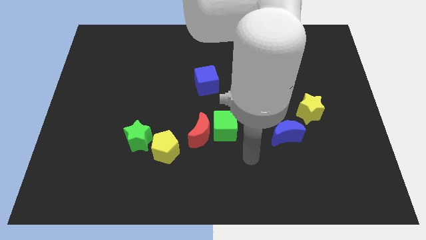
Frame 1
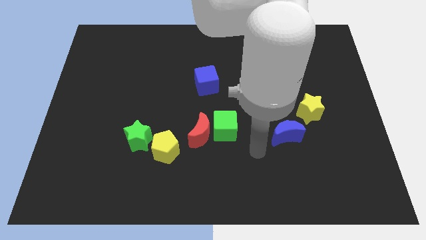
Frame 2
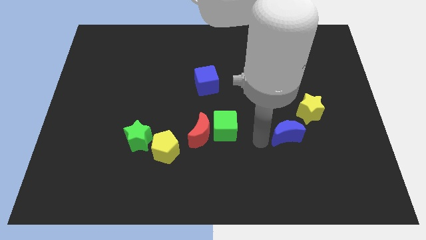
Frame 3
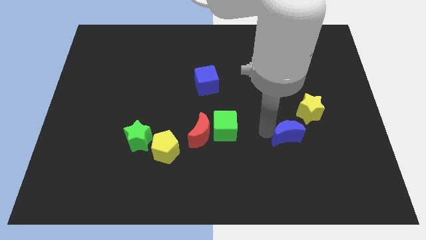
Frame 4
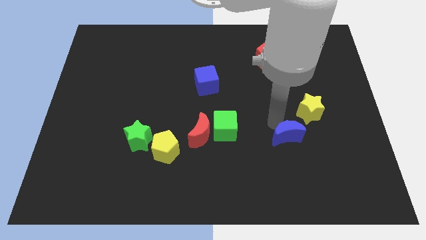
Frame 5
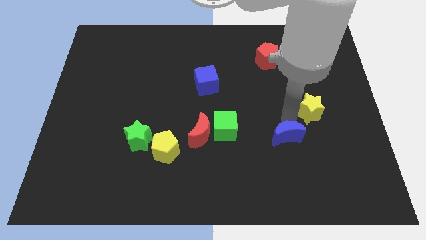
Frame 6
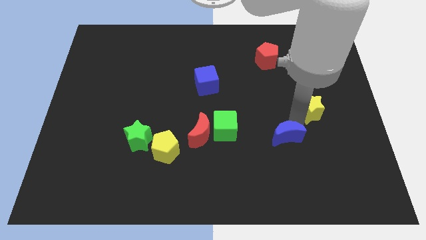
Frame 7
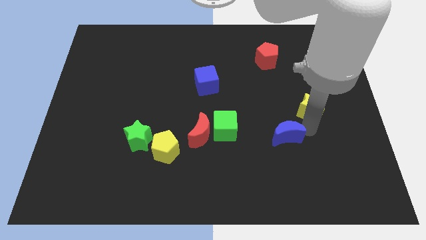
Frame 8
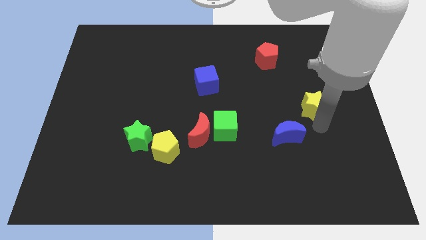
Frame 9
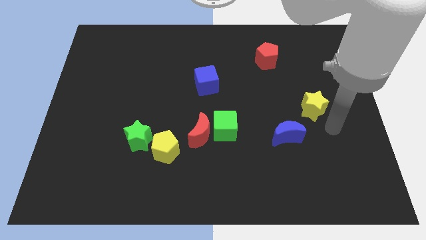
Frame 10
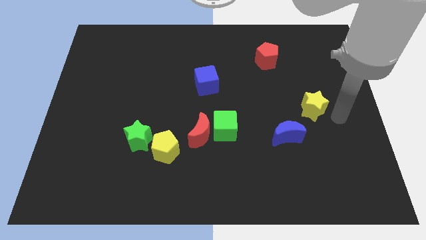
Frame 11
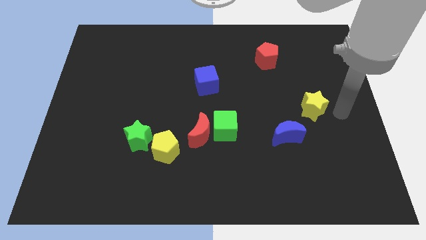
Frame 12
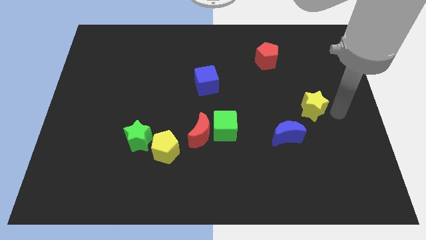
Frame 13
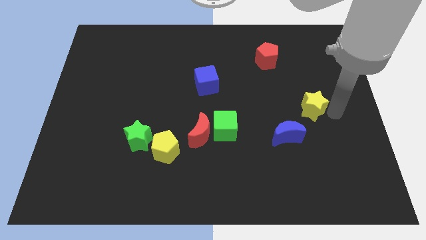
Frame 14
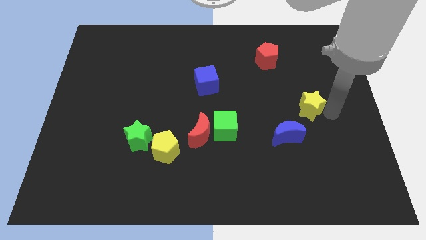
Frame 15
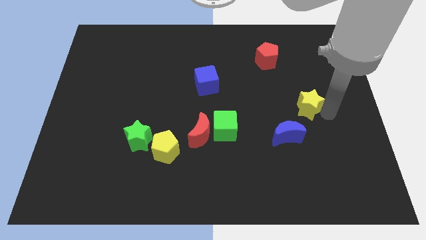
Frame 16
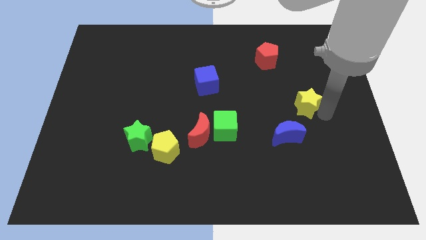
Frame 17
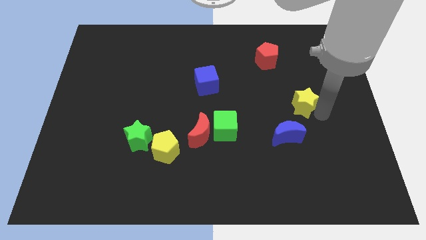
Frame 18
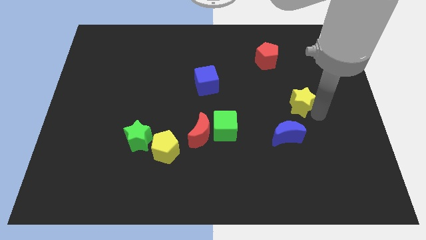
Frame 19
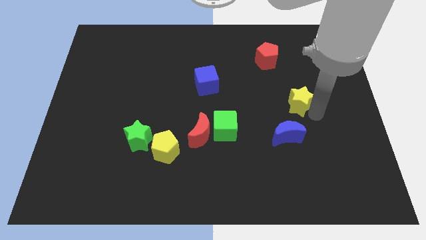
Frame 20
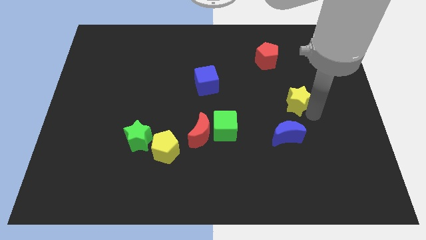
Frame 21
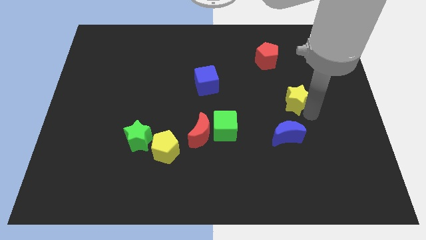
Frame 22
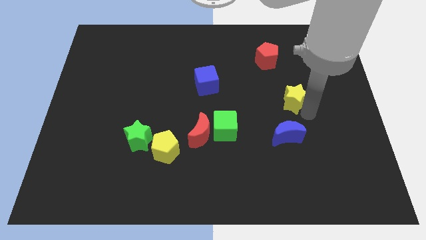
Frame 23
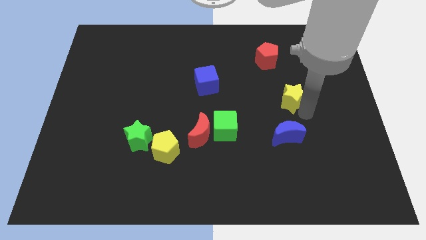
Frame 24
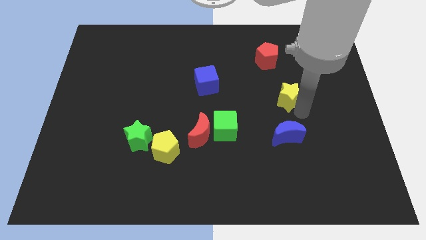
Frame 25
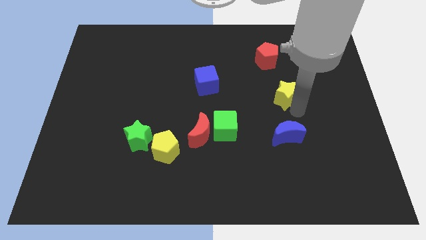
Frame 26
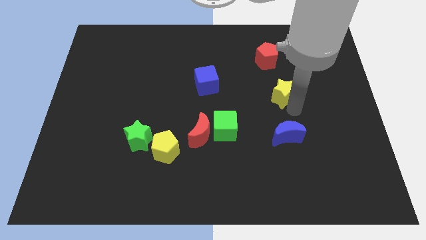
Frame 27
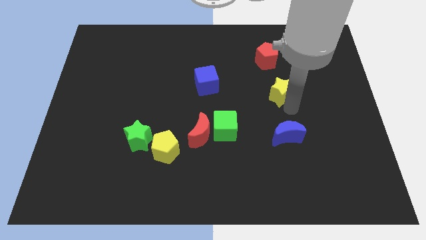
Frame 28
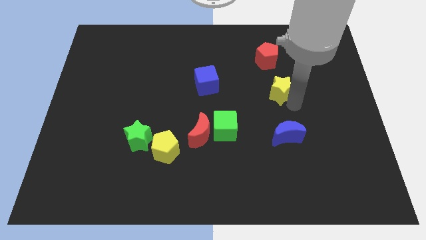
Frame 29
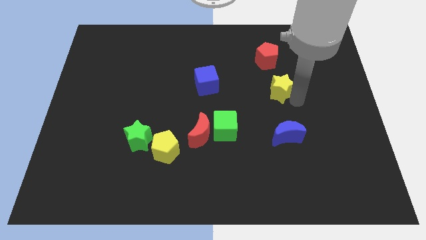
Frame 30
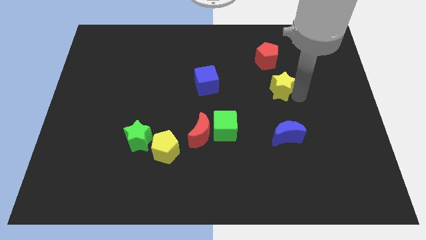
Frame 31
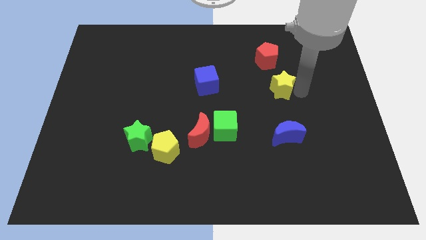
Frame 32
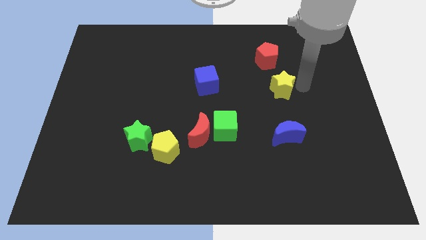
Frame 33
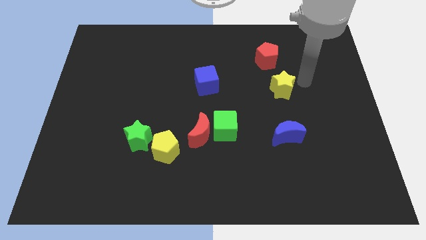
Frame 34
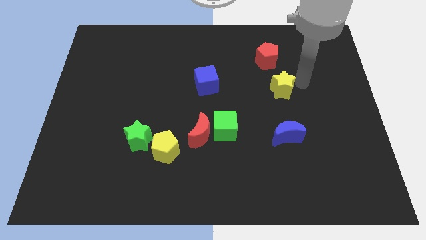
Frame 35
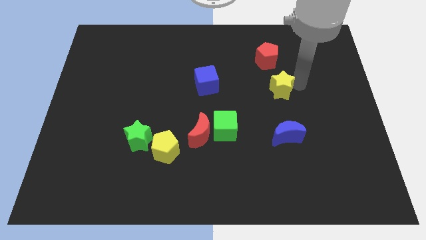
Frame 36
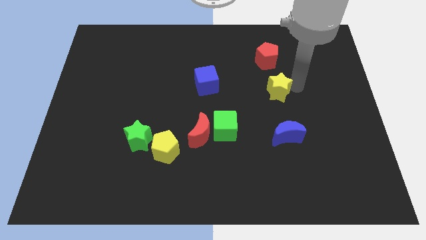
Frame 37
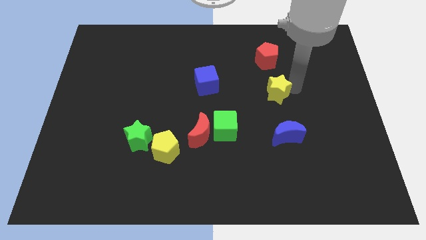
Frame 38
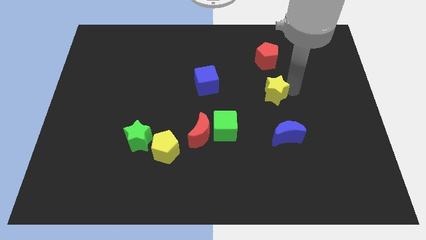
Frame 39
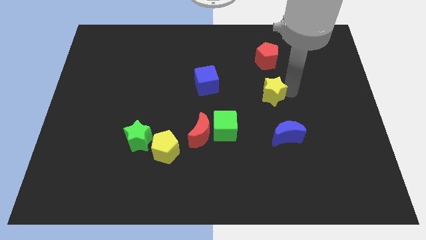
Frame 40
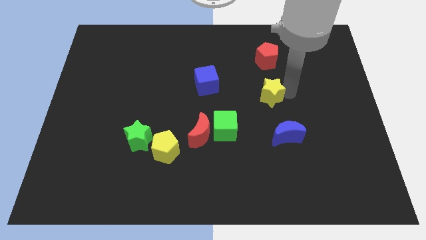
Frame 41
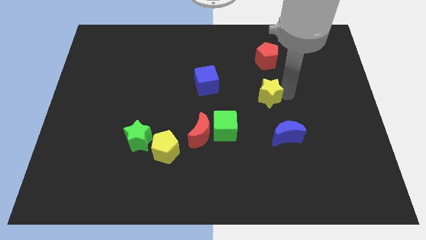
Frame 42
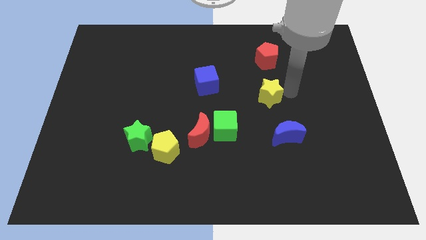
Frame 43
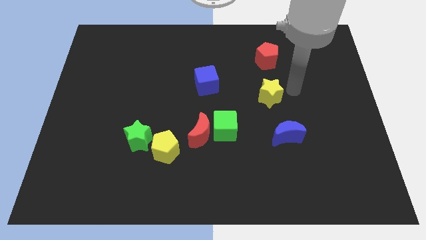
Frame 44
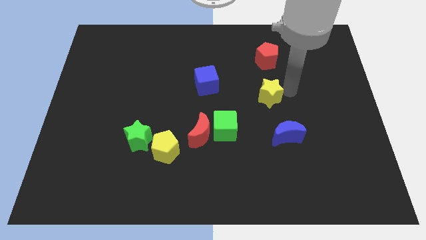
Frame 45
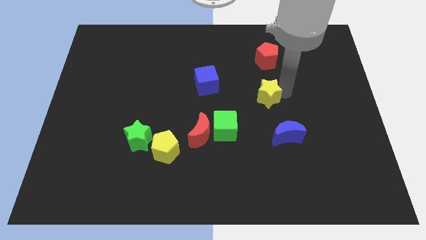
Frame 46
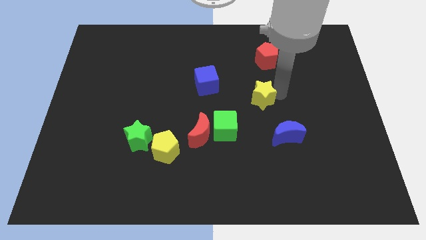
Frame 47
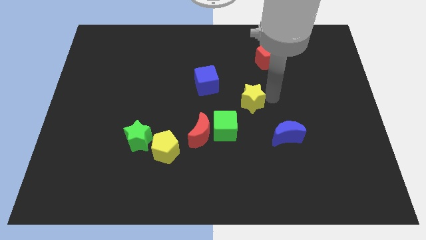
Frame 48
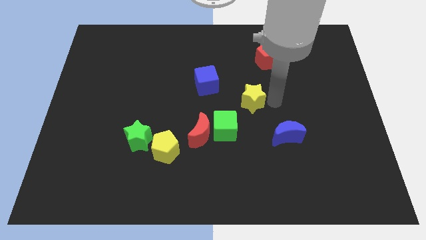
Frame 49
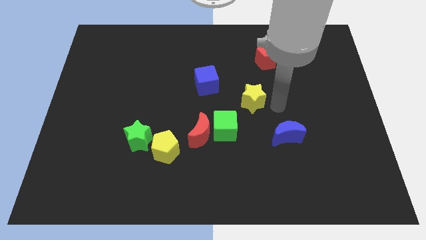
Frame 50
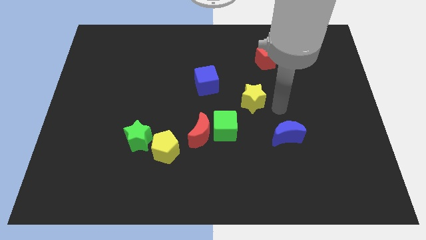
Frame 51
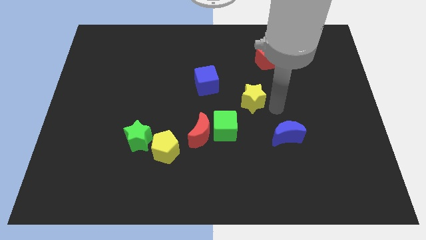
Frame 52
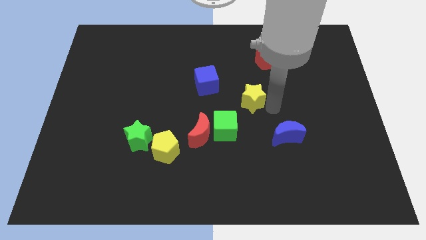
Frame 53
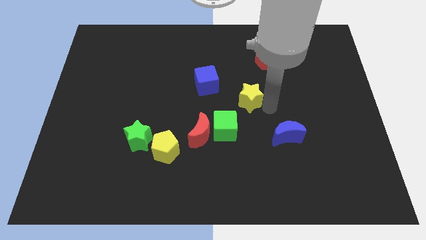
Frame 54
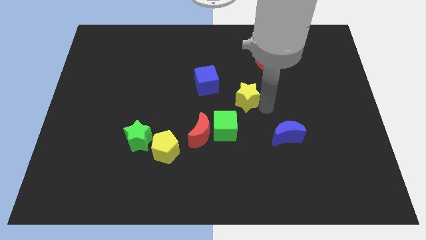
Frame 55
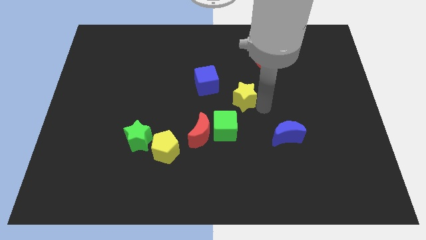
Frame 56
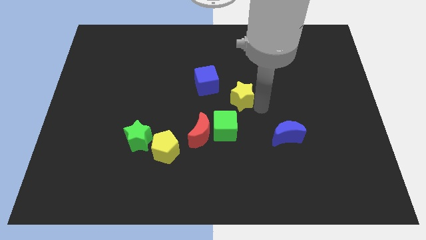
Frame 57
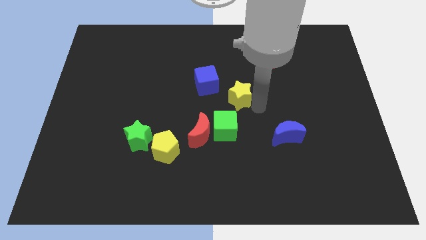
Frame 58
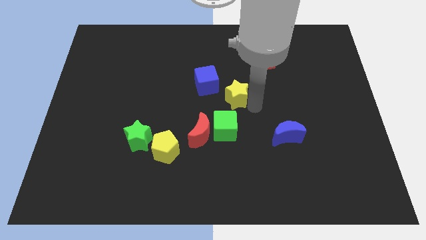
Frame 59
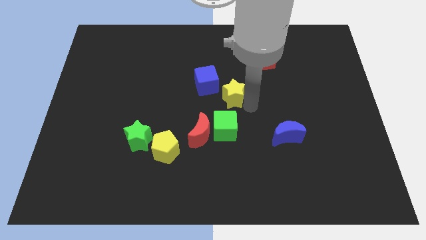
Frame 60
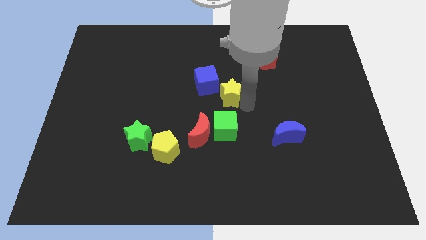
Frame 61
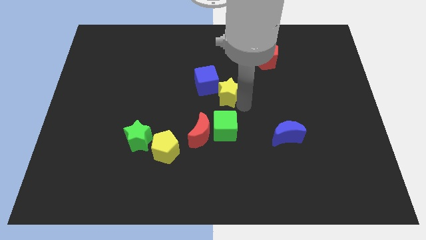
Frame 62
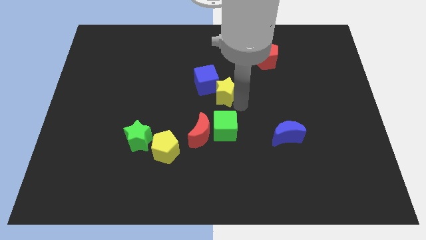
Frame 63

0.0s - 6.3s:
put the yellow star close to the blue cube
